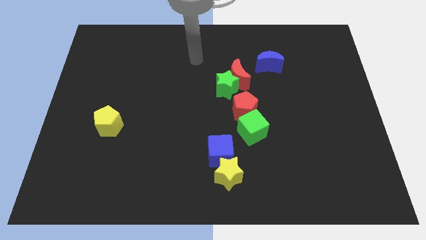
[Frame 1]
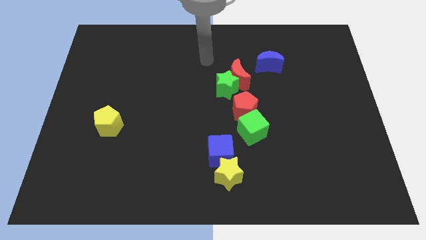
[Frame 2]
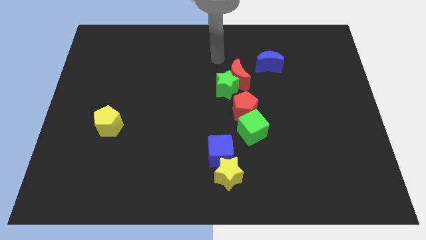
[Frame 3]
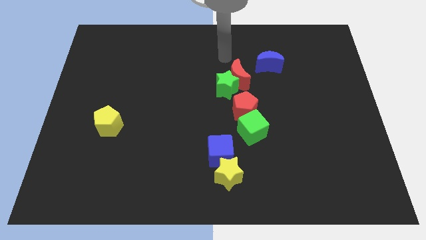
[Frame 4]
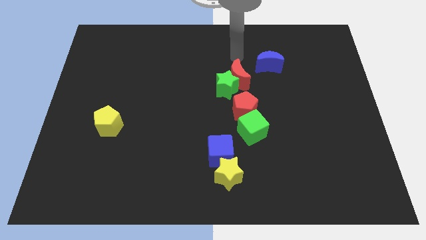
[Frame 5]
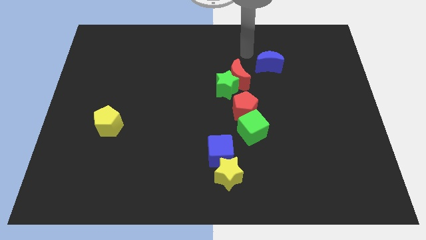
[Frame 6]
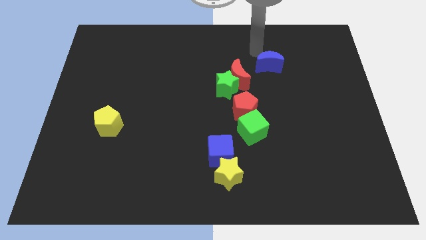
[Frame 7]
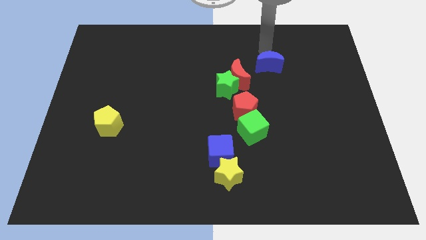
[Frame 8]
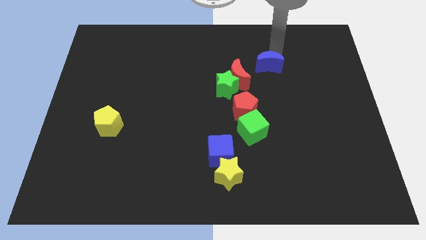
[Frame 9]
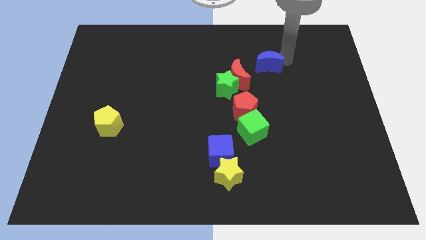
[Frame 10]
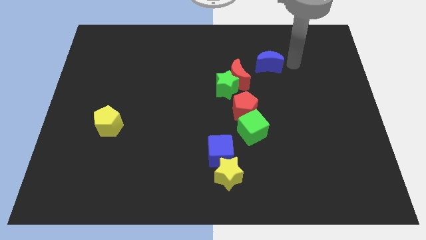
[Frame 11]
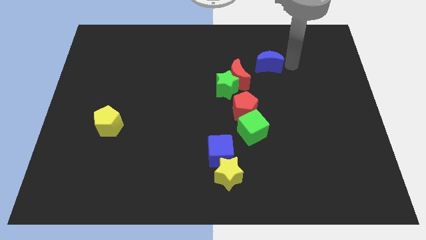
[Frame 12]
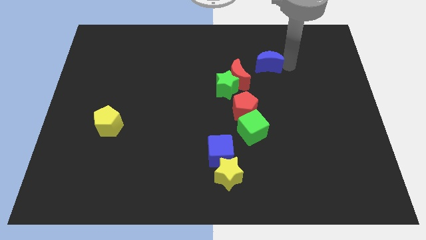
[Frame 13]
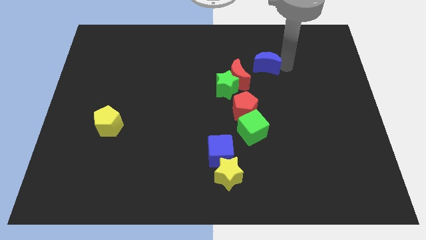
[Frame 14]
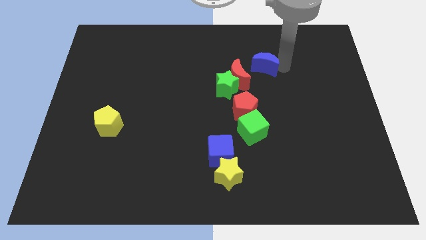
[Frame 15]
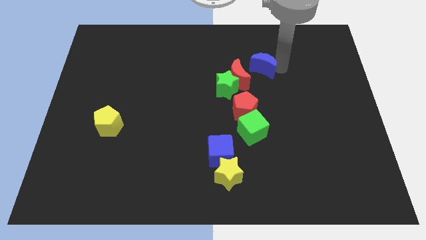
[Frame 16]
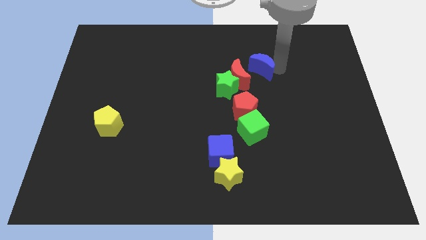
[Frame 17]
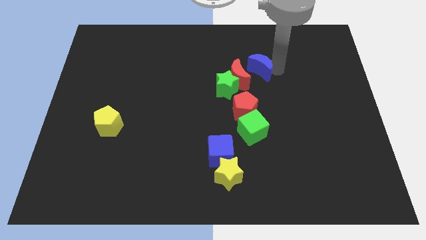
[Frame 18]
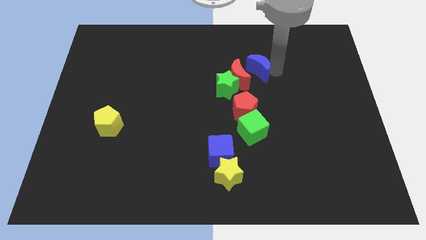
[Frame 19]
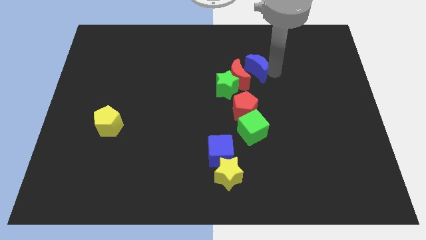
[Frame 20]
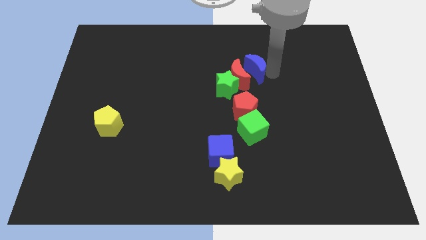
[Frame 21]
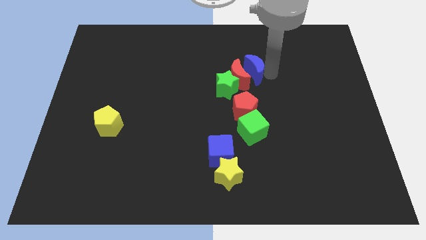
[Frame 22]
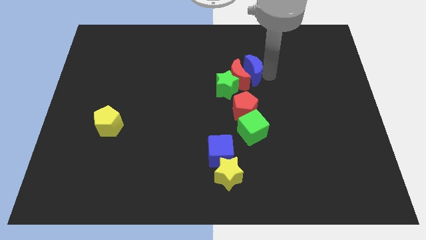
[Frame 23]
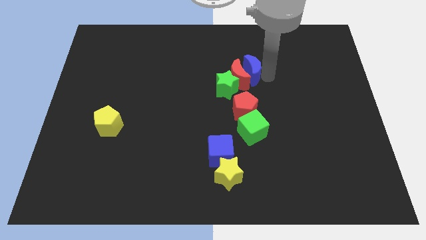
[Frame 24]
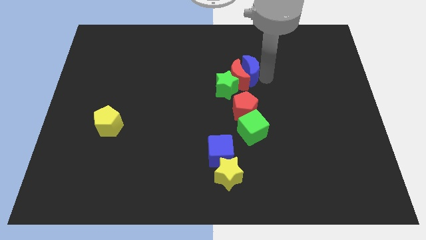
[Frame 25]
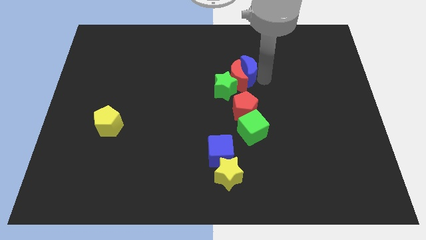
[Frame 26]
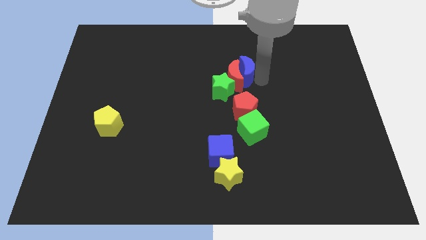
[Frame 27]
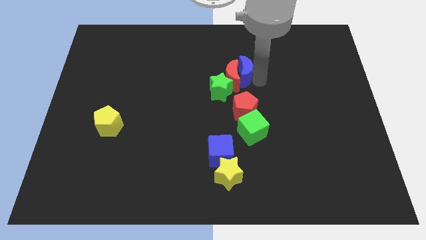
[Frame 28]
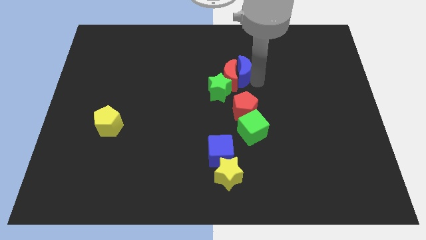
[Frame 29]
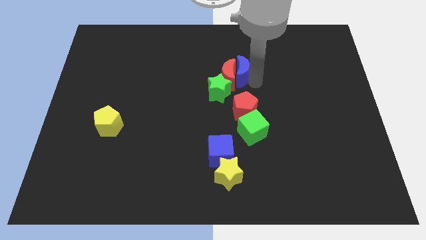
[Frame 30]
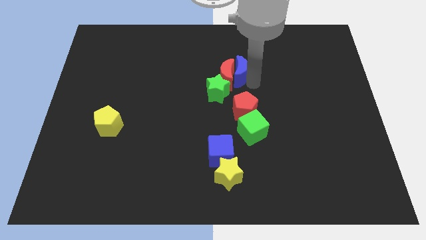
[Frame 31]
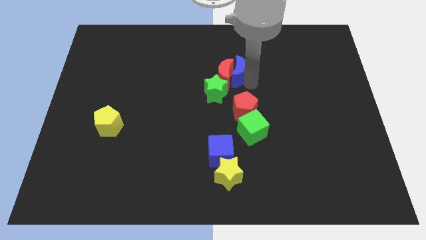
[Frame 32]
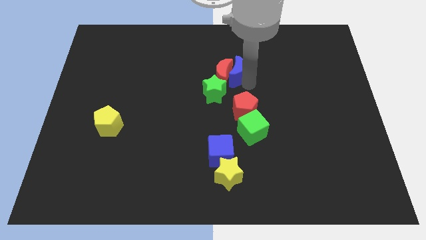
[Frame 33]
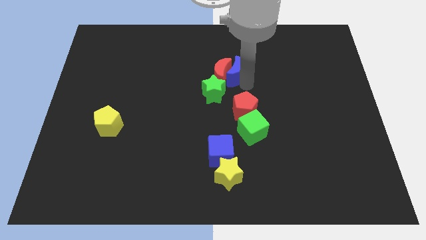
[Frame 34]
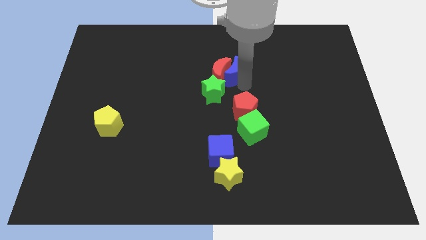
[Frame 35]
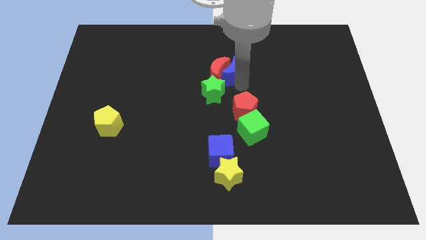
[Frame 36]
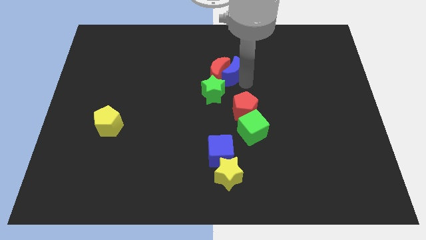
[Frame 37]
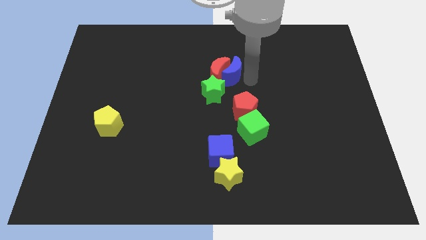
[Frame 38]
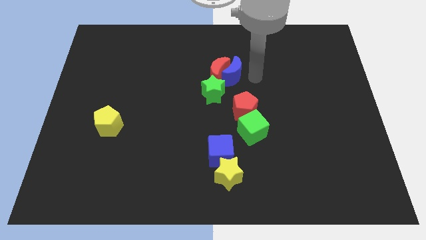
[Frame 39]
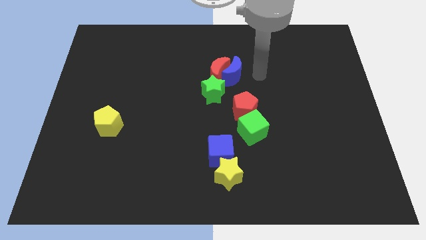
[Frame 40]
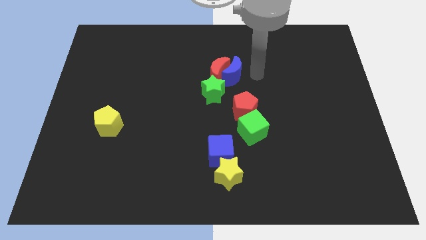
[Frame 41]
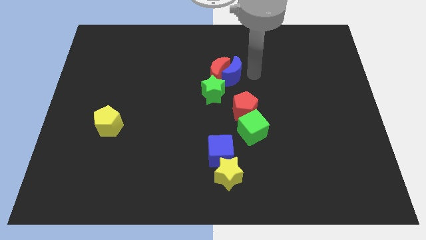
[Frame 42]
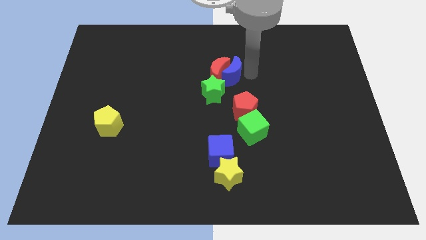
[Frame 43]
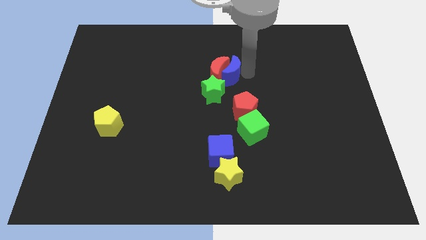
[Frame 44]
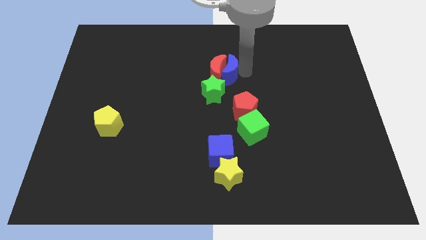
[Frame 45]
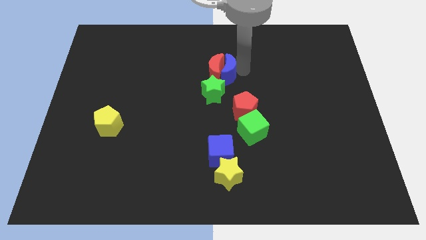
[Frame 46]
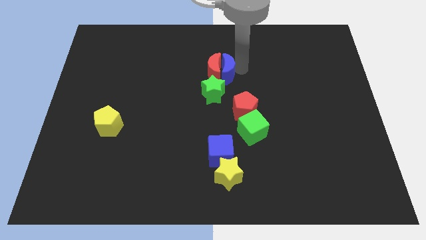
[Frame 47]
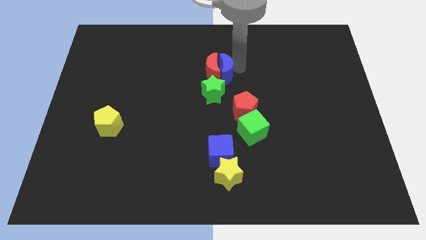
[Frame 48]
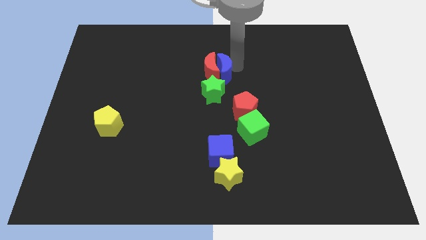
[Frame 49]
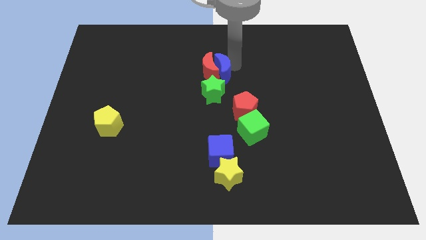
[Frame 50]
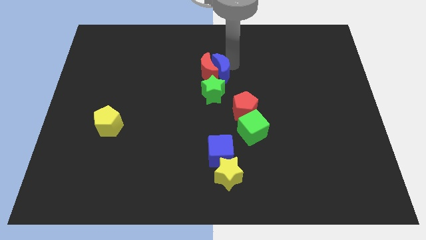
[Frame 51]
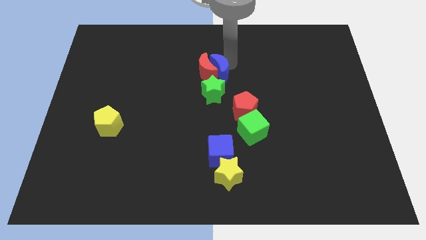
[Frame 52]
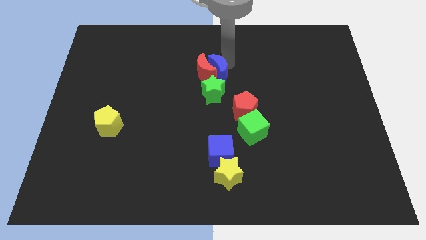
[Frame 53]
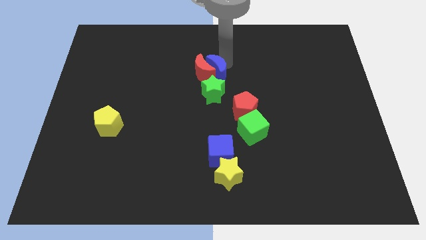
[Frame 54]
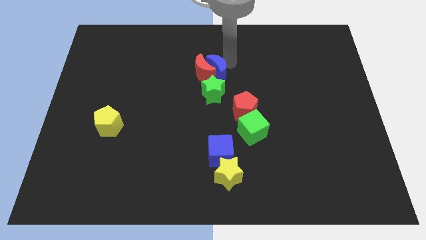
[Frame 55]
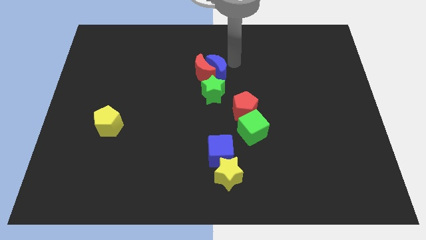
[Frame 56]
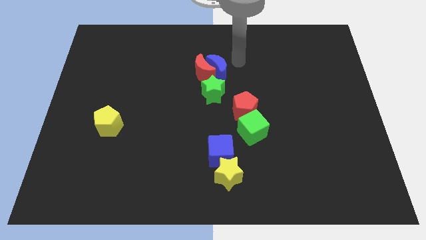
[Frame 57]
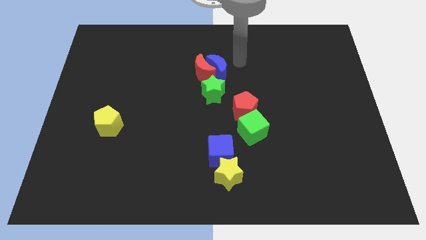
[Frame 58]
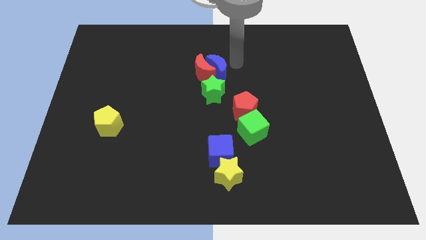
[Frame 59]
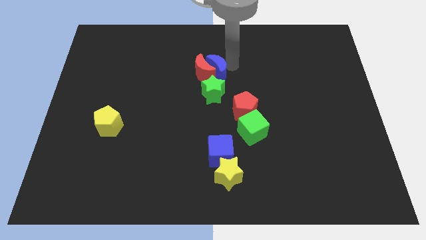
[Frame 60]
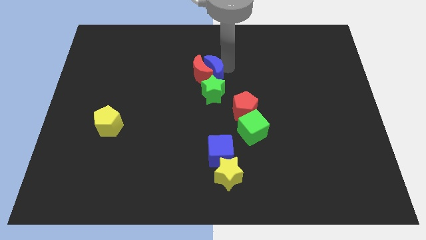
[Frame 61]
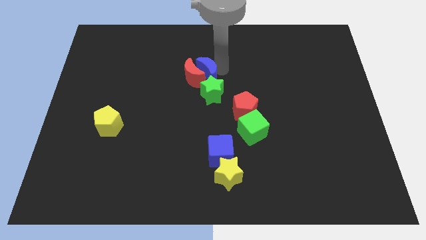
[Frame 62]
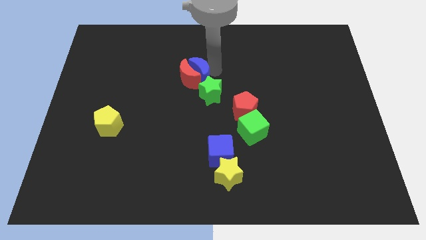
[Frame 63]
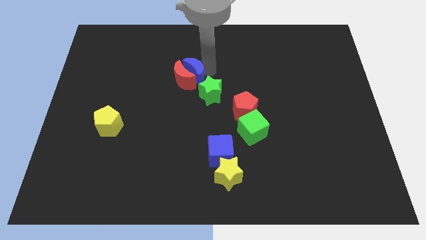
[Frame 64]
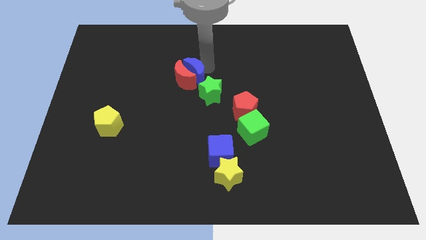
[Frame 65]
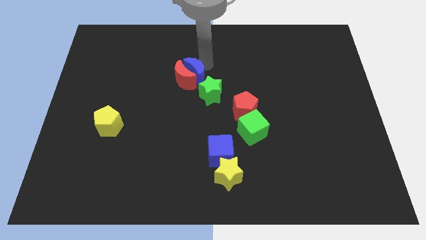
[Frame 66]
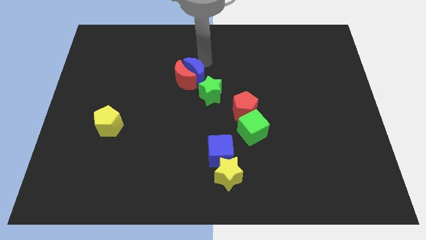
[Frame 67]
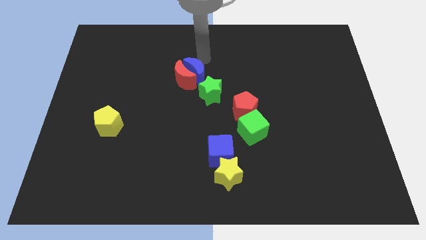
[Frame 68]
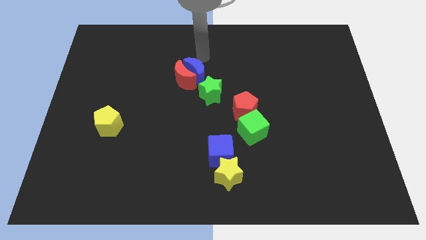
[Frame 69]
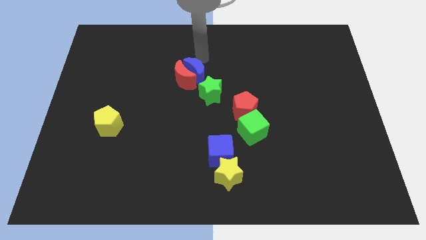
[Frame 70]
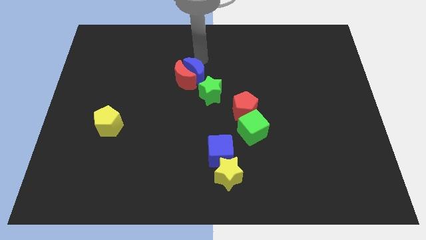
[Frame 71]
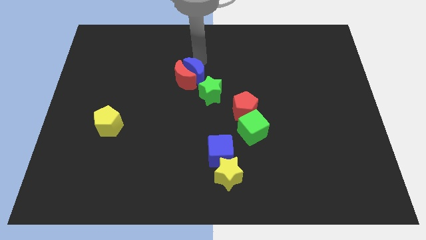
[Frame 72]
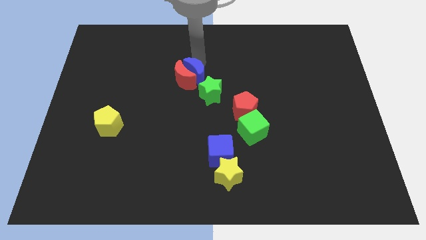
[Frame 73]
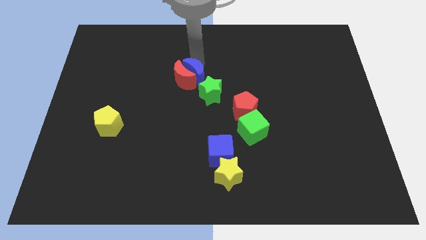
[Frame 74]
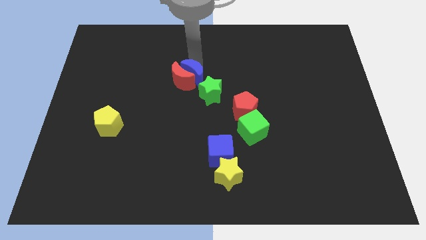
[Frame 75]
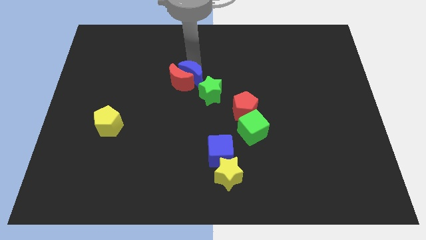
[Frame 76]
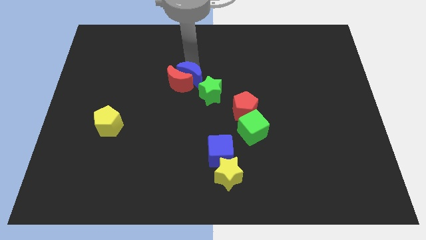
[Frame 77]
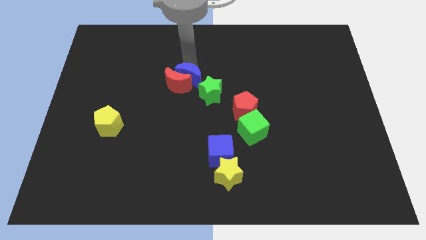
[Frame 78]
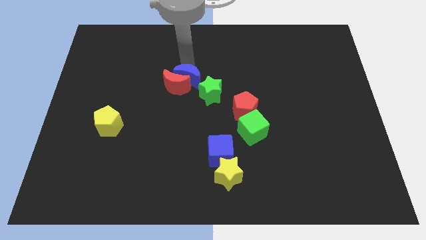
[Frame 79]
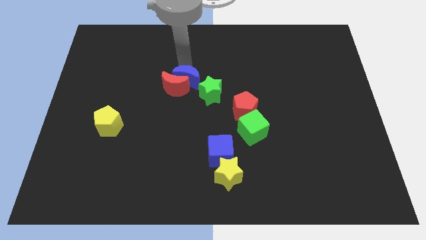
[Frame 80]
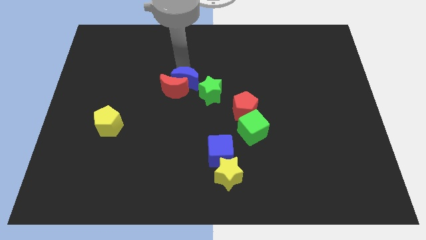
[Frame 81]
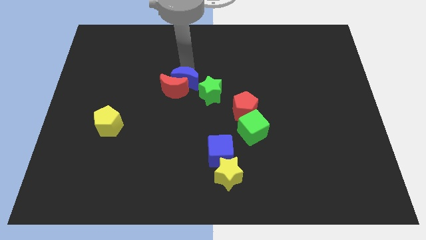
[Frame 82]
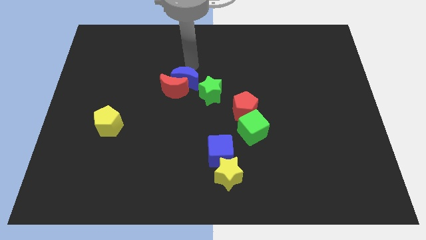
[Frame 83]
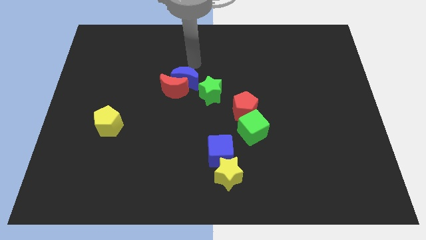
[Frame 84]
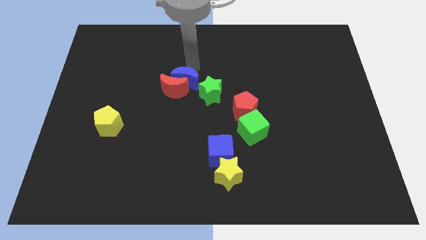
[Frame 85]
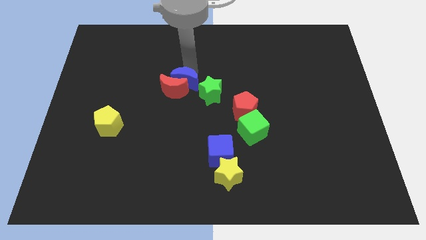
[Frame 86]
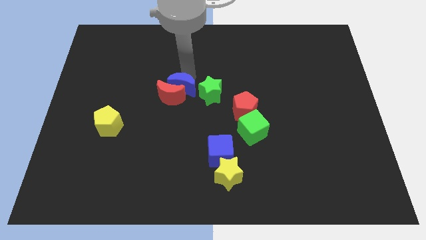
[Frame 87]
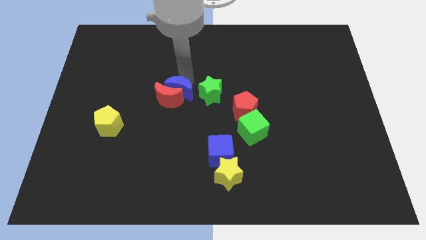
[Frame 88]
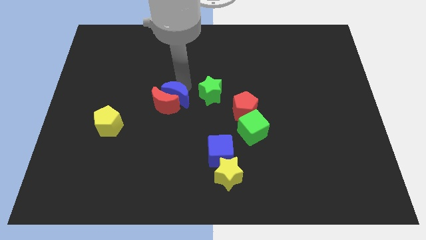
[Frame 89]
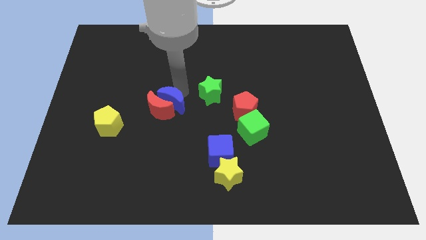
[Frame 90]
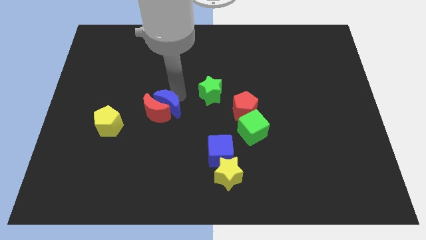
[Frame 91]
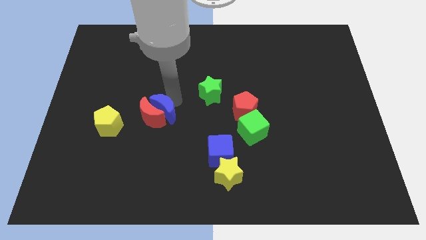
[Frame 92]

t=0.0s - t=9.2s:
slide the blue moon right of the yellow pentagon
